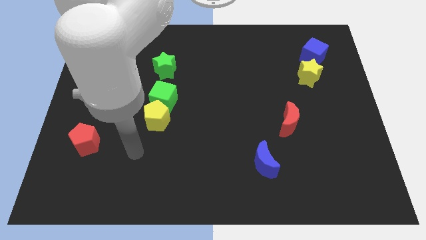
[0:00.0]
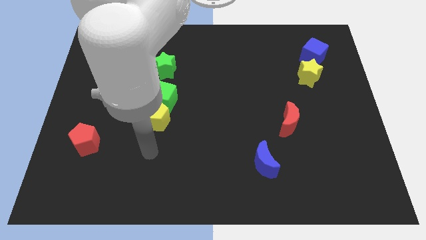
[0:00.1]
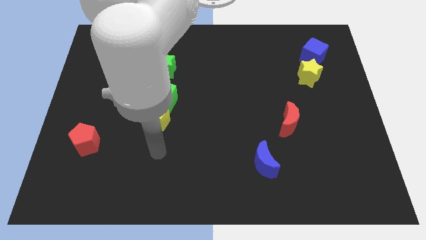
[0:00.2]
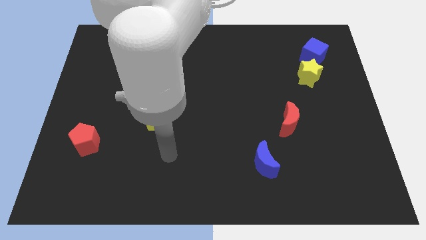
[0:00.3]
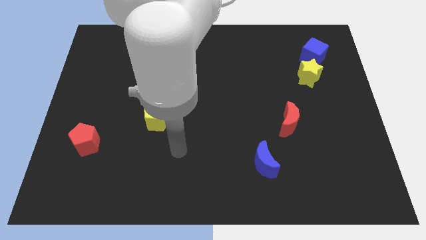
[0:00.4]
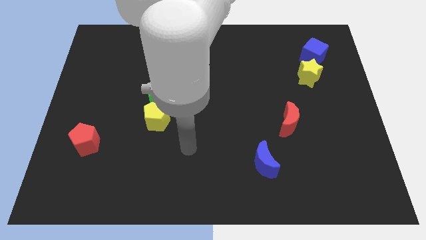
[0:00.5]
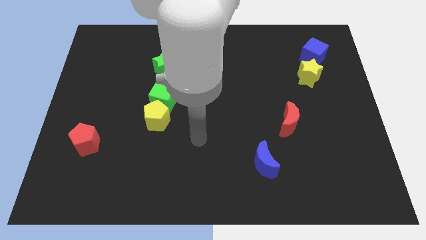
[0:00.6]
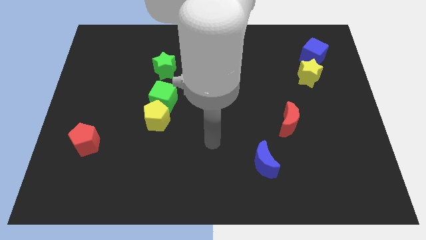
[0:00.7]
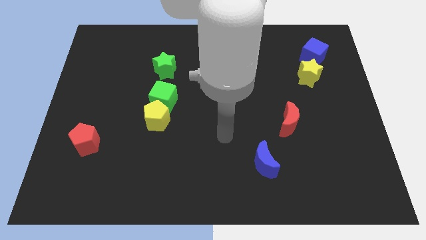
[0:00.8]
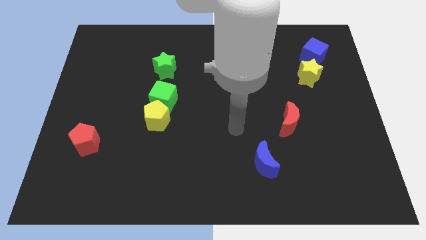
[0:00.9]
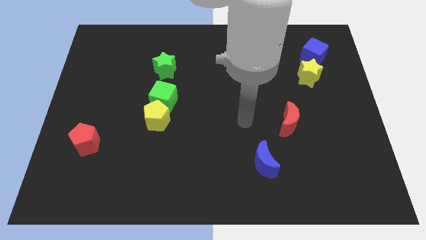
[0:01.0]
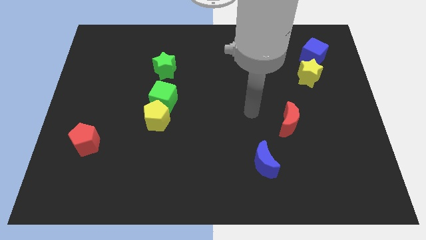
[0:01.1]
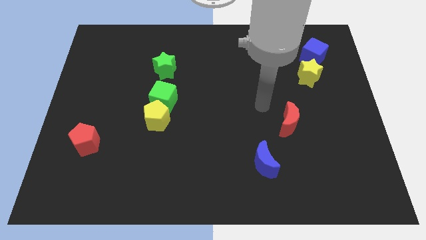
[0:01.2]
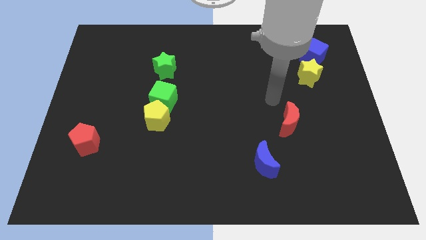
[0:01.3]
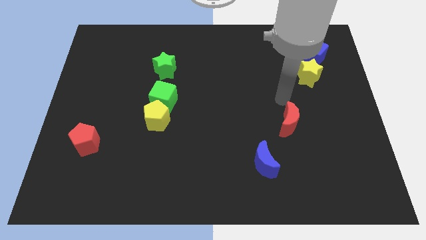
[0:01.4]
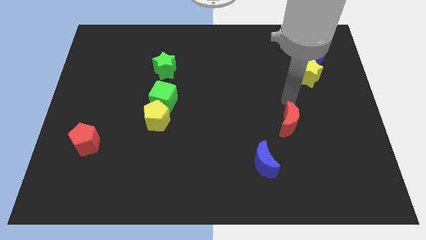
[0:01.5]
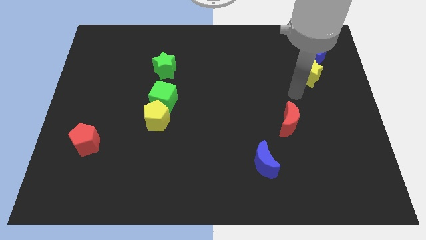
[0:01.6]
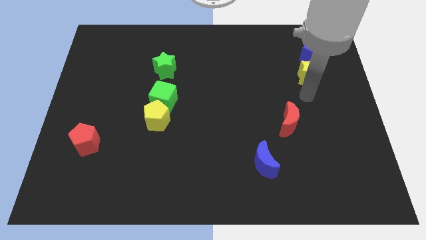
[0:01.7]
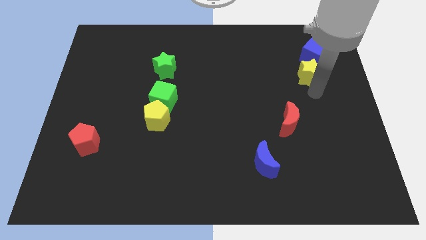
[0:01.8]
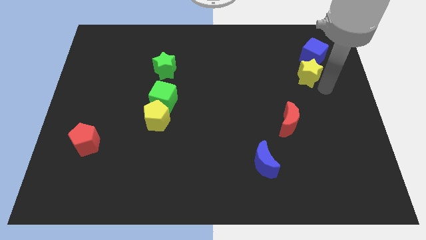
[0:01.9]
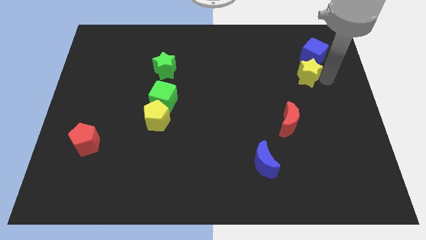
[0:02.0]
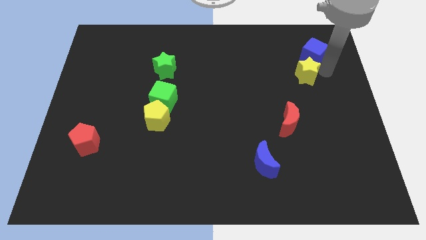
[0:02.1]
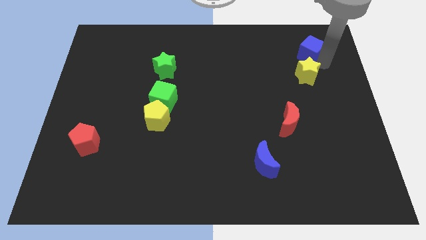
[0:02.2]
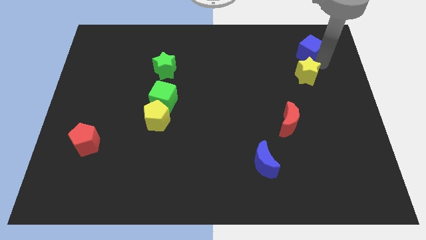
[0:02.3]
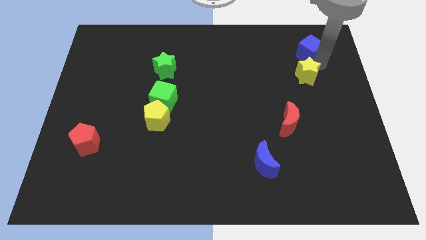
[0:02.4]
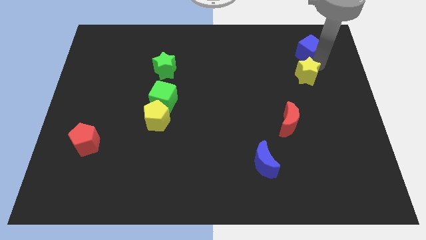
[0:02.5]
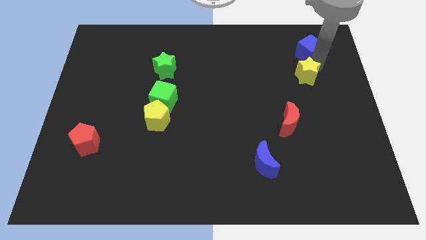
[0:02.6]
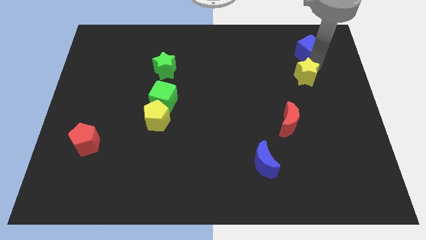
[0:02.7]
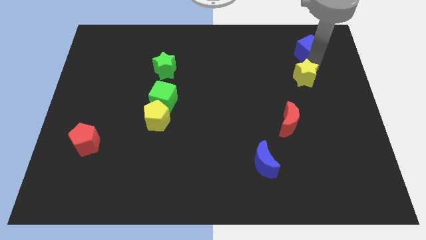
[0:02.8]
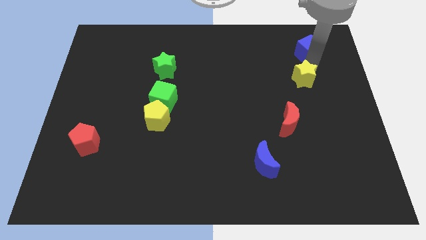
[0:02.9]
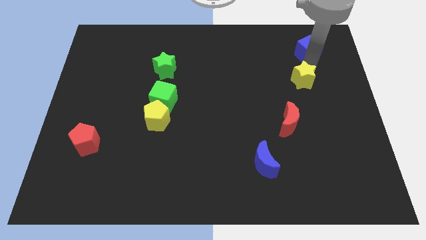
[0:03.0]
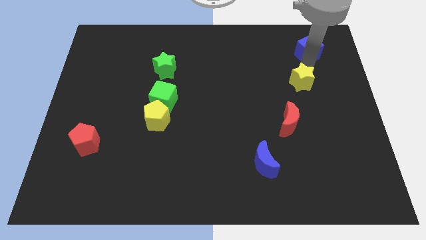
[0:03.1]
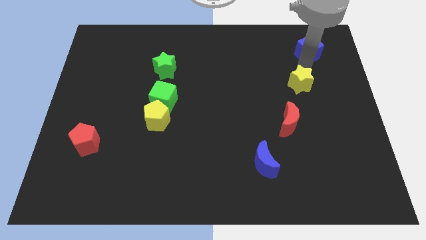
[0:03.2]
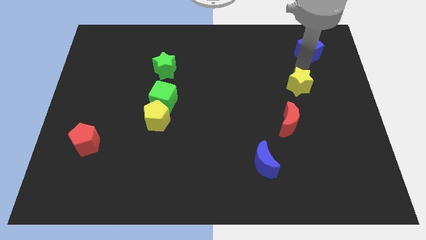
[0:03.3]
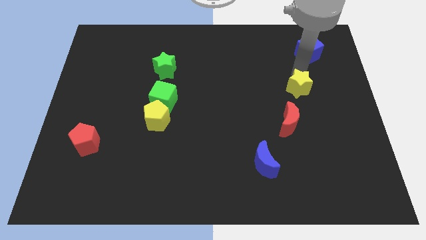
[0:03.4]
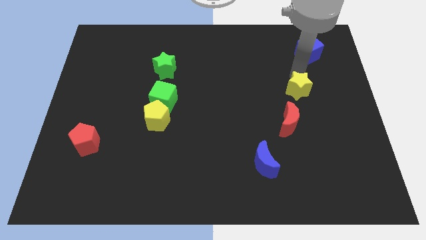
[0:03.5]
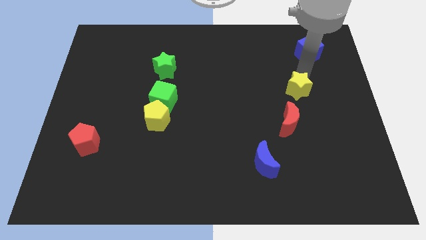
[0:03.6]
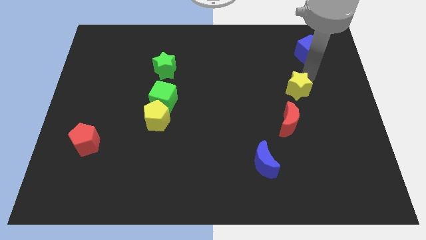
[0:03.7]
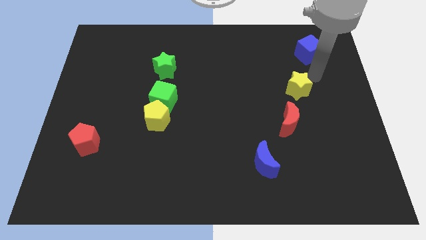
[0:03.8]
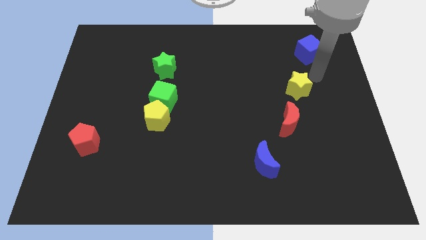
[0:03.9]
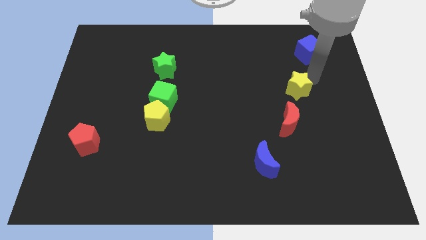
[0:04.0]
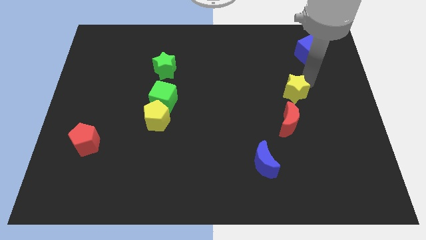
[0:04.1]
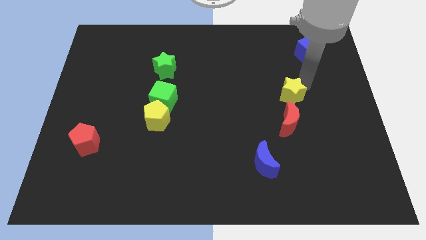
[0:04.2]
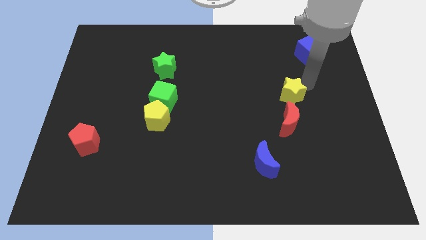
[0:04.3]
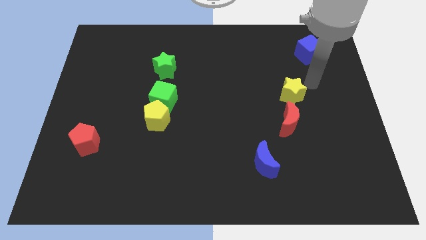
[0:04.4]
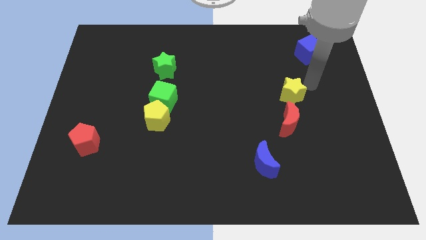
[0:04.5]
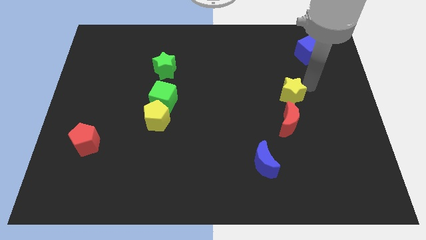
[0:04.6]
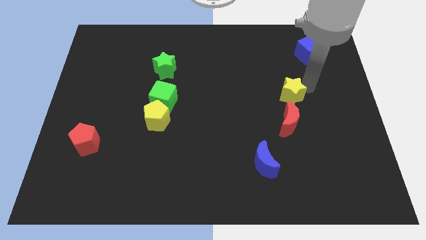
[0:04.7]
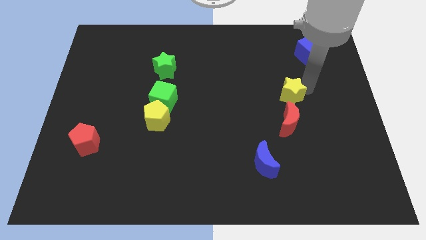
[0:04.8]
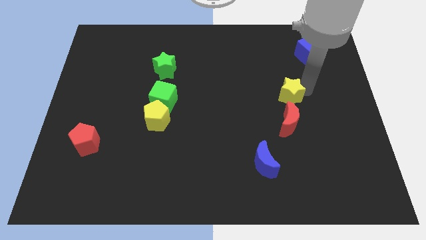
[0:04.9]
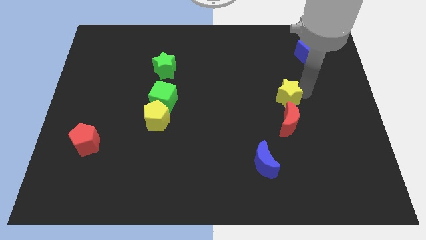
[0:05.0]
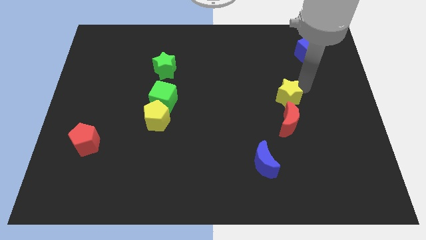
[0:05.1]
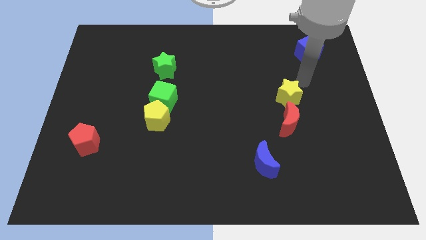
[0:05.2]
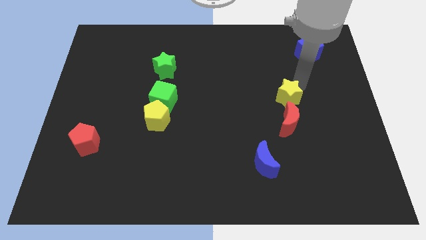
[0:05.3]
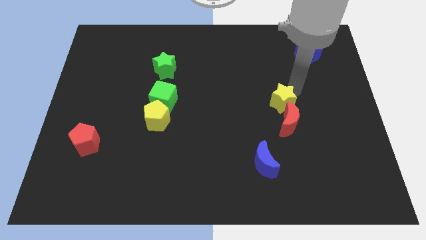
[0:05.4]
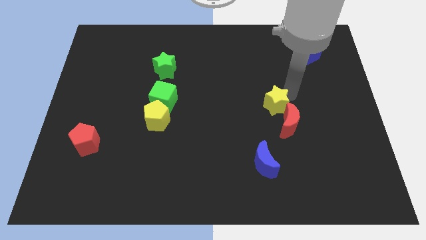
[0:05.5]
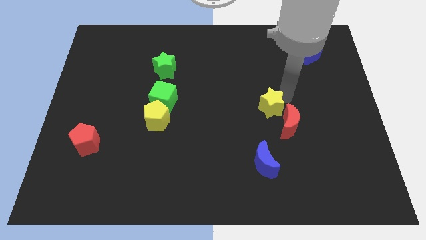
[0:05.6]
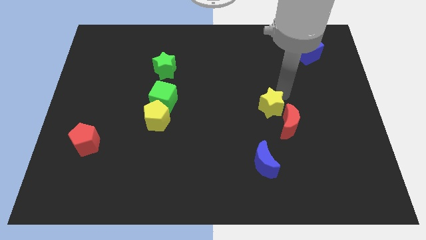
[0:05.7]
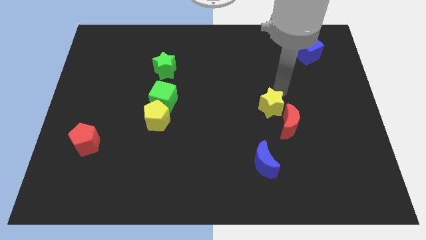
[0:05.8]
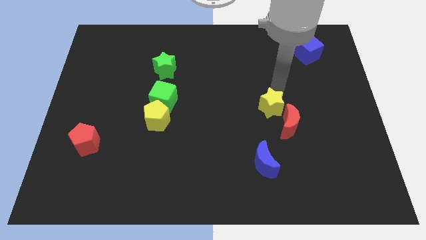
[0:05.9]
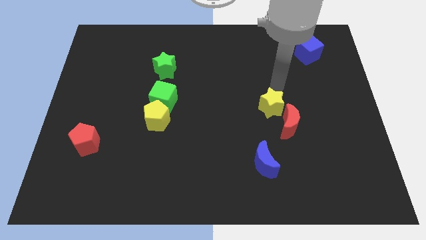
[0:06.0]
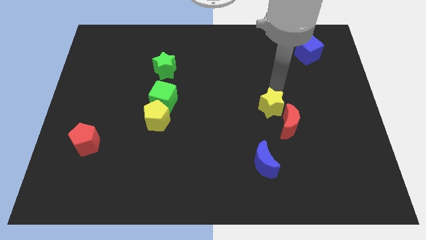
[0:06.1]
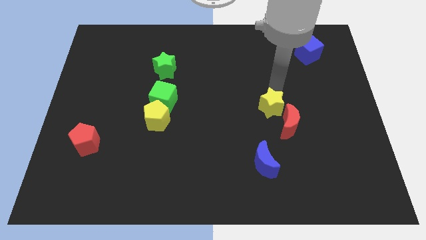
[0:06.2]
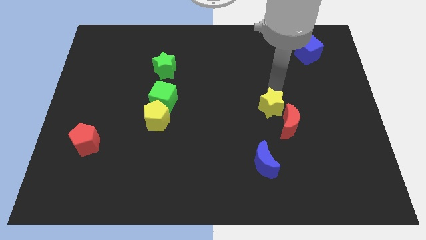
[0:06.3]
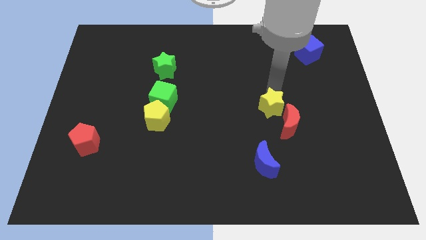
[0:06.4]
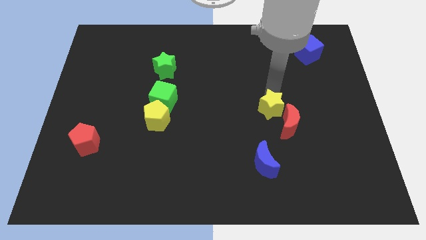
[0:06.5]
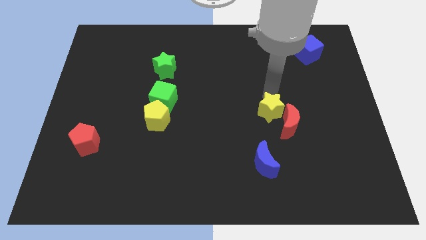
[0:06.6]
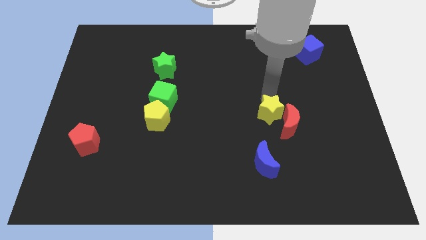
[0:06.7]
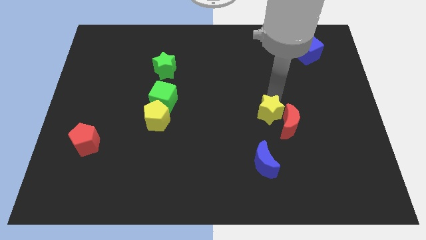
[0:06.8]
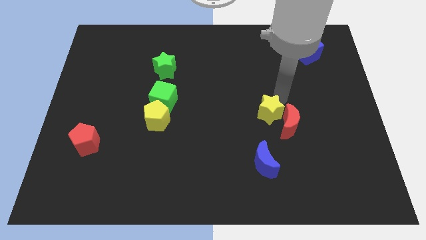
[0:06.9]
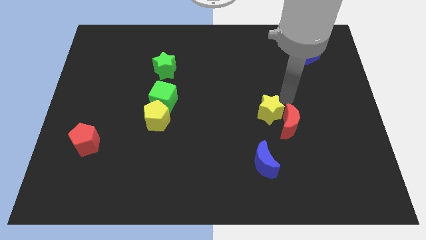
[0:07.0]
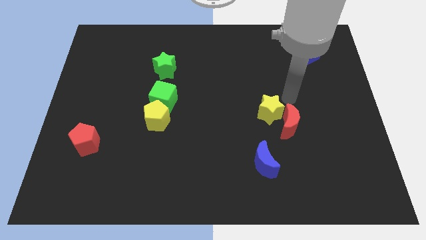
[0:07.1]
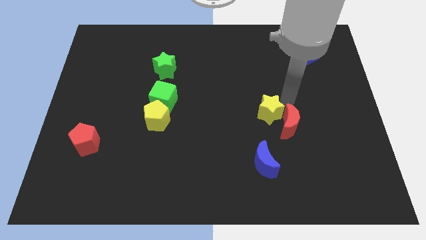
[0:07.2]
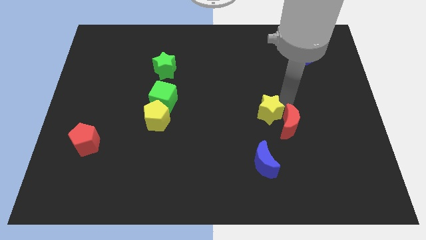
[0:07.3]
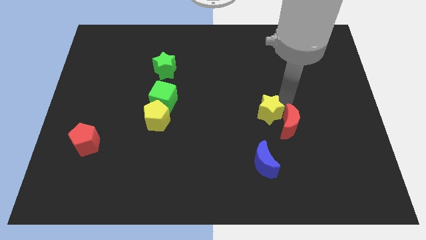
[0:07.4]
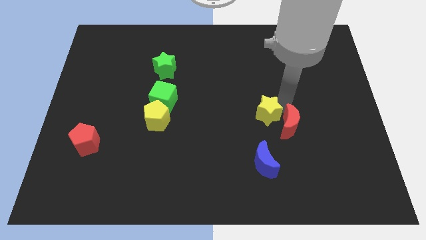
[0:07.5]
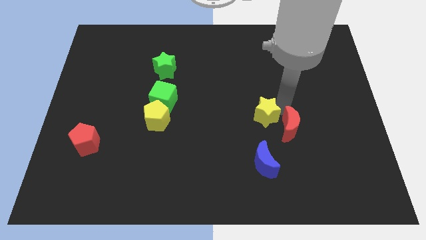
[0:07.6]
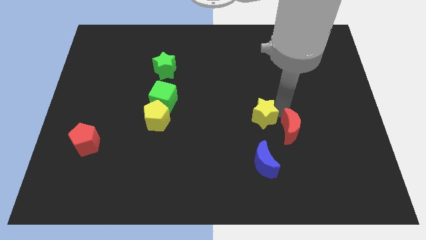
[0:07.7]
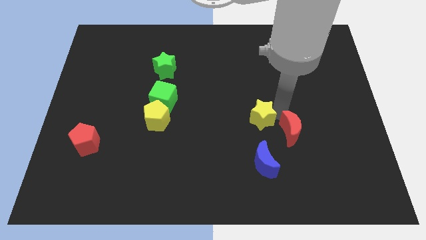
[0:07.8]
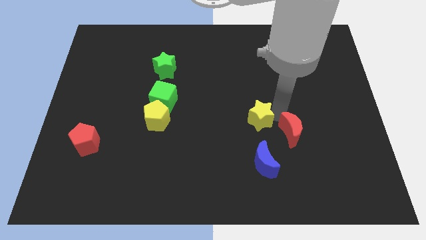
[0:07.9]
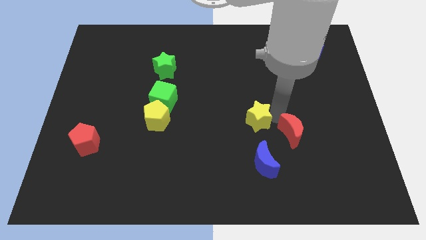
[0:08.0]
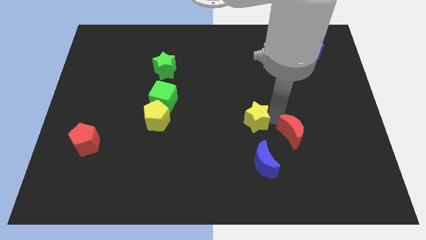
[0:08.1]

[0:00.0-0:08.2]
move the yellow star down and then left
